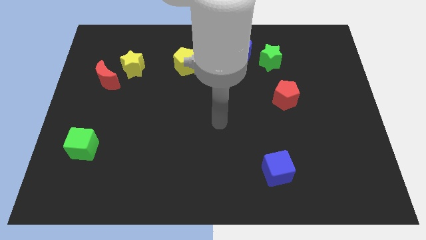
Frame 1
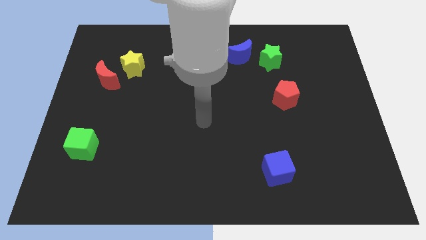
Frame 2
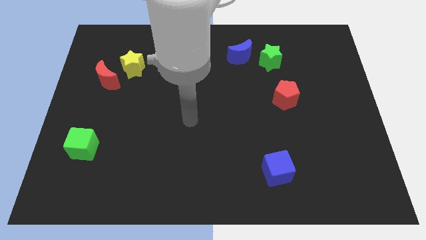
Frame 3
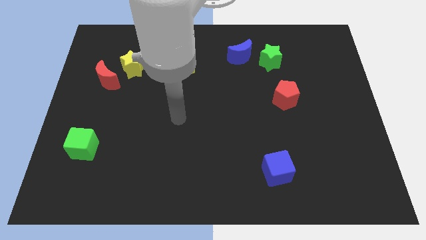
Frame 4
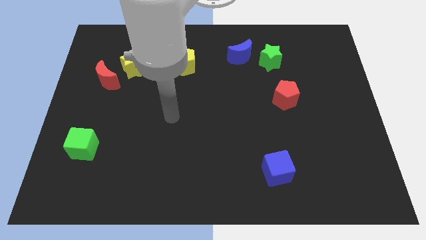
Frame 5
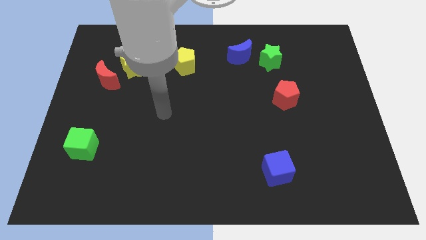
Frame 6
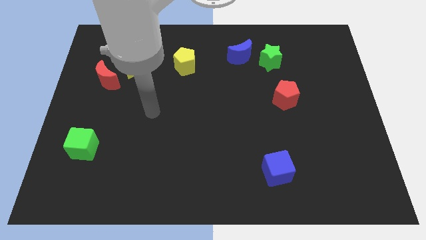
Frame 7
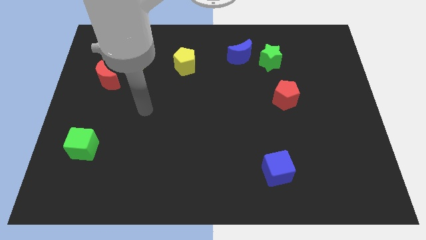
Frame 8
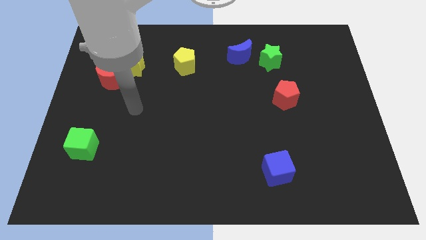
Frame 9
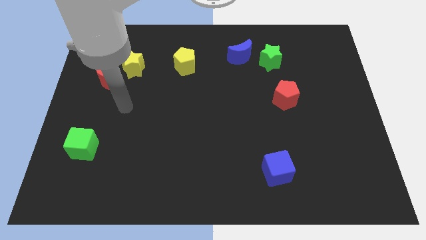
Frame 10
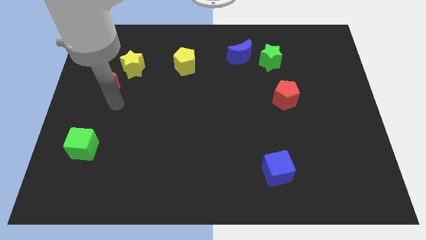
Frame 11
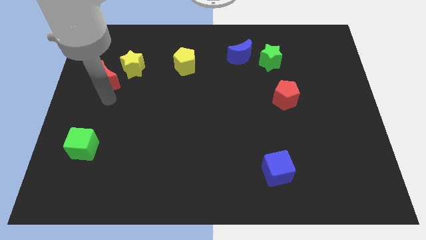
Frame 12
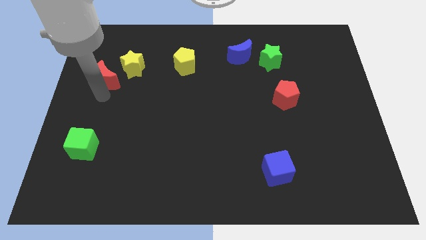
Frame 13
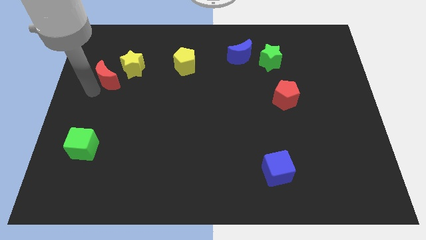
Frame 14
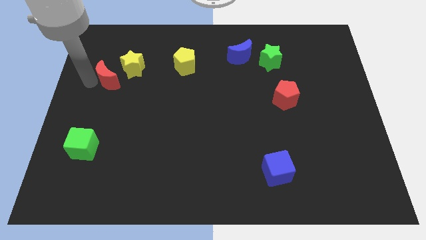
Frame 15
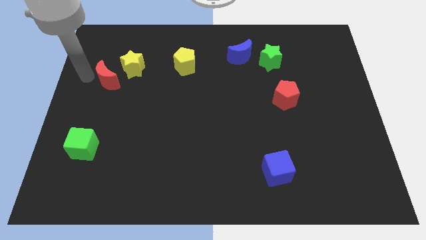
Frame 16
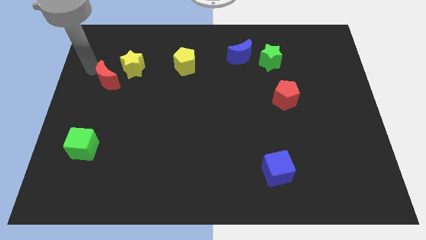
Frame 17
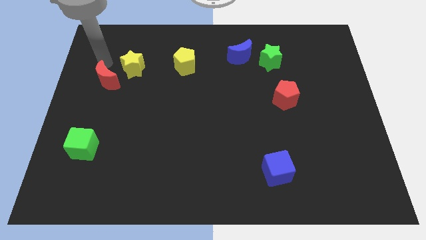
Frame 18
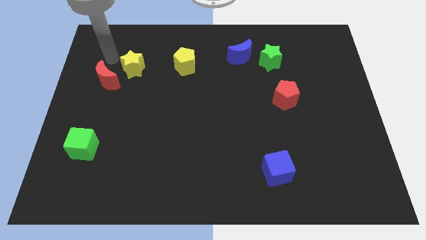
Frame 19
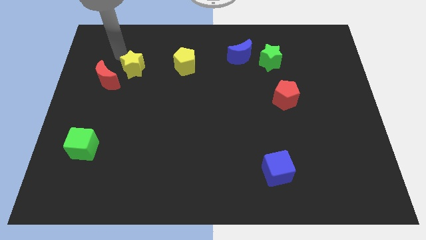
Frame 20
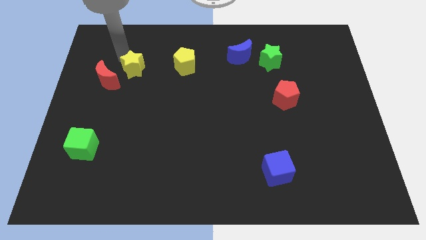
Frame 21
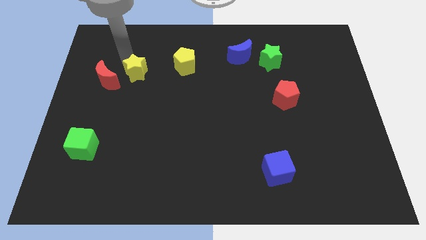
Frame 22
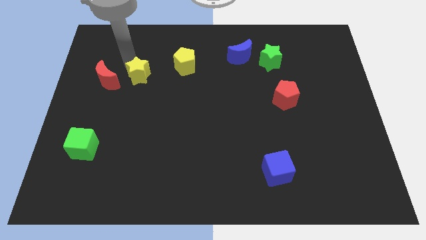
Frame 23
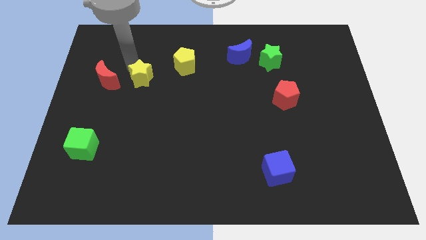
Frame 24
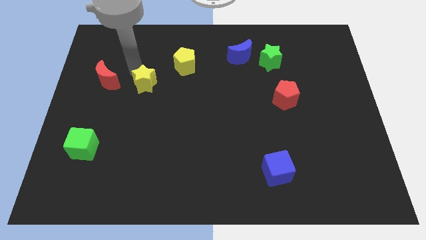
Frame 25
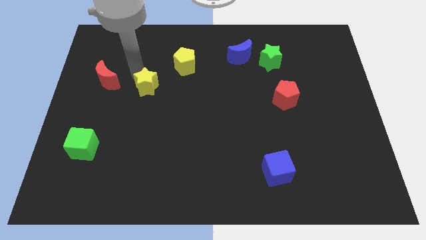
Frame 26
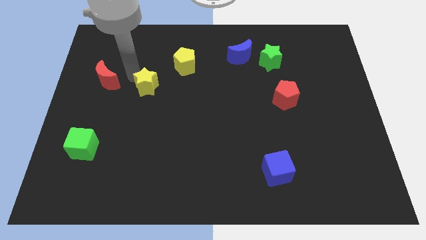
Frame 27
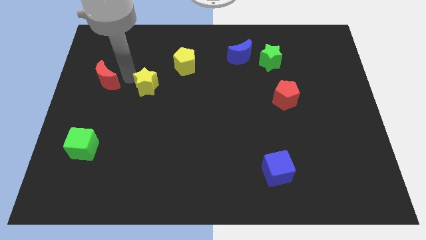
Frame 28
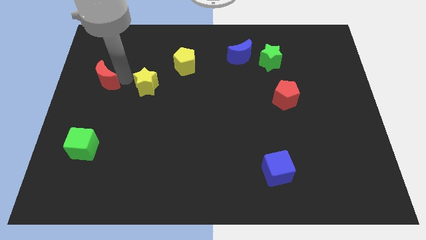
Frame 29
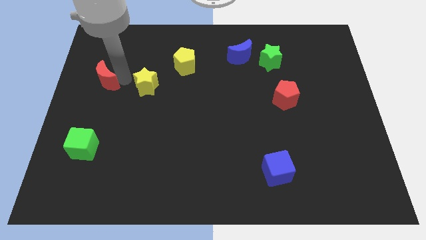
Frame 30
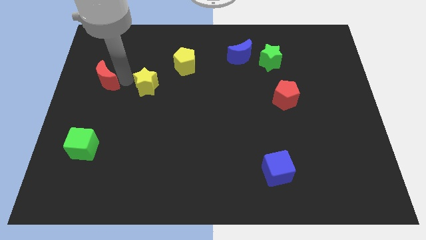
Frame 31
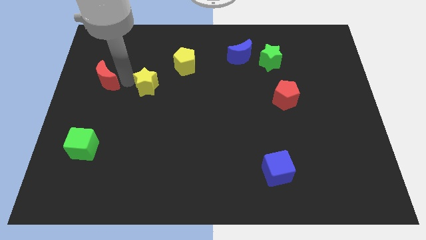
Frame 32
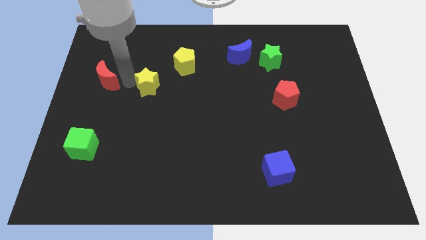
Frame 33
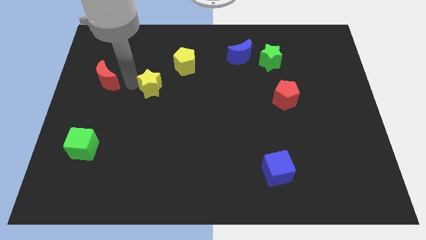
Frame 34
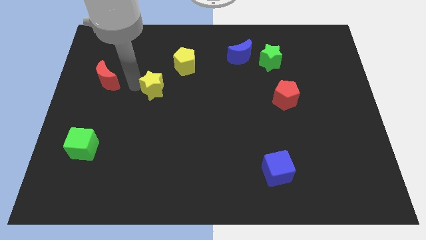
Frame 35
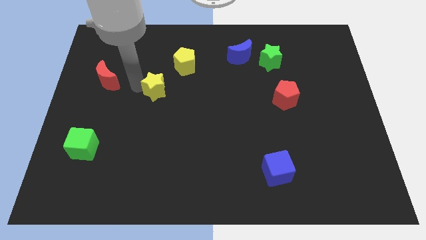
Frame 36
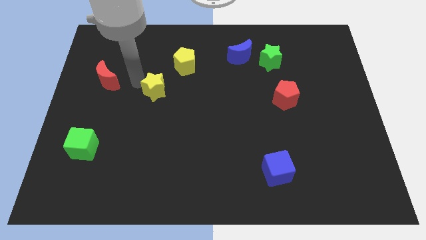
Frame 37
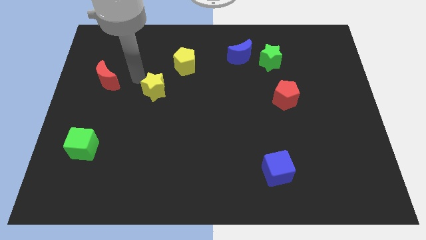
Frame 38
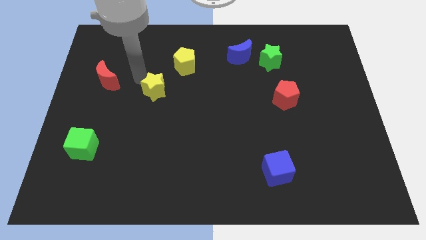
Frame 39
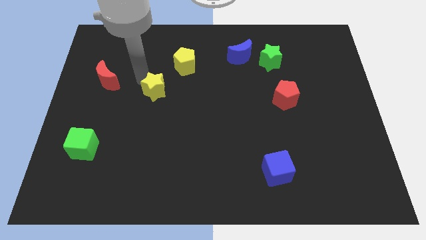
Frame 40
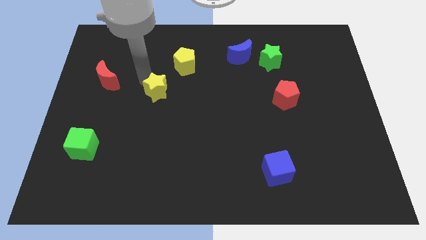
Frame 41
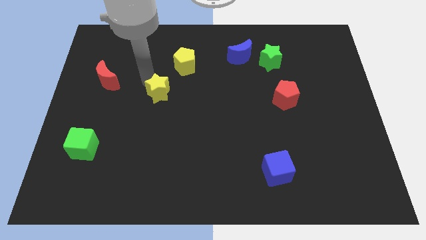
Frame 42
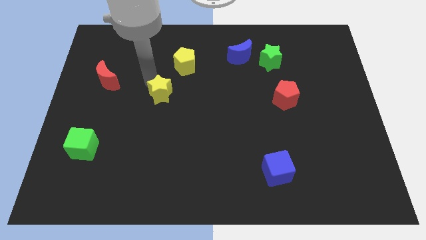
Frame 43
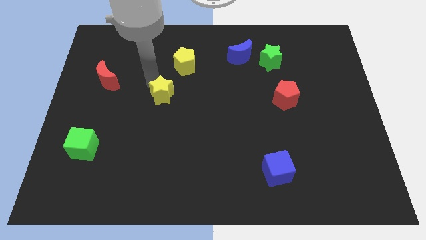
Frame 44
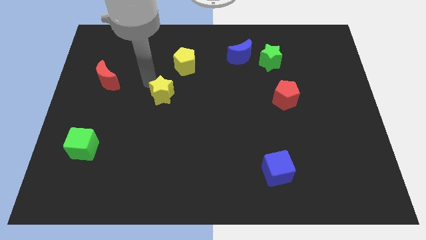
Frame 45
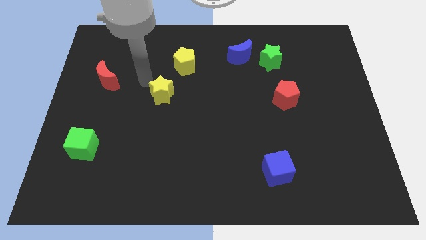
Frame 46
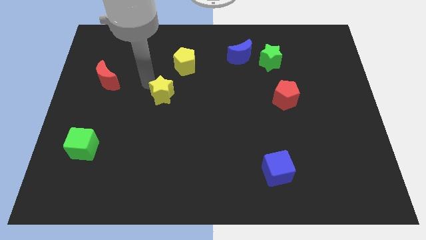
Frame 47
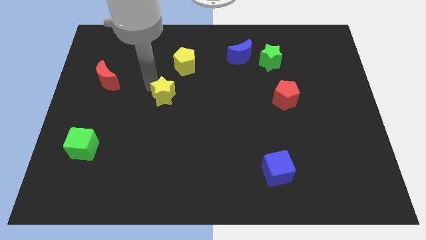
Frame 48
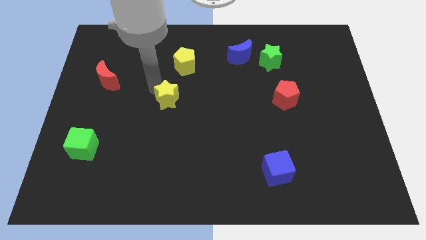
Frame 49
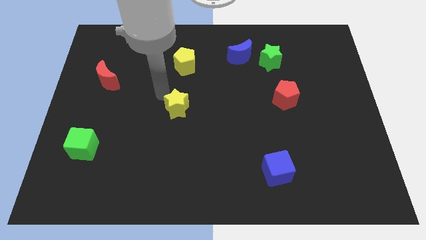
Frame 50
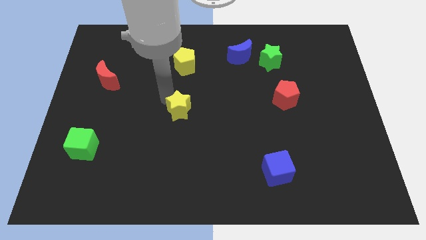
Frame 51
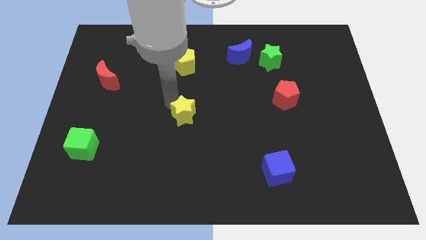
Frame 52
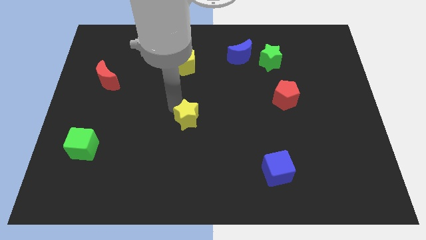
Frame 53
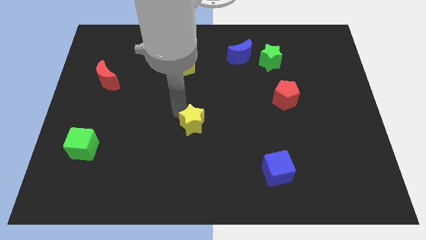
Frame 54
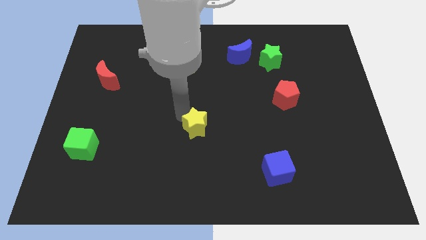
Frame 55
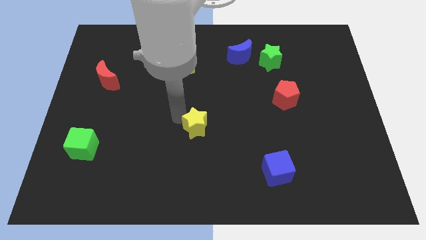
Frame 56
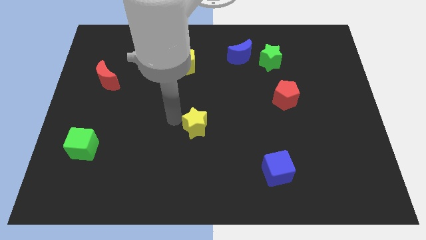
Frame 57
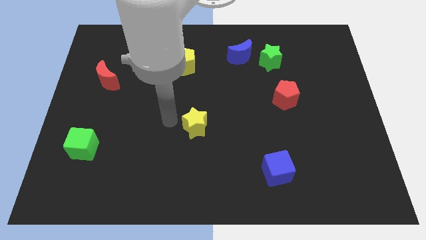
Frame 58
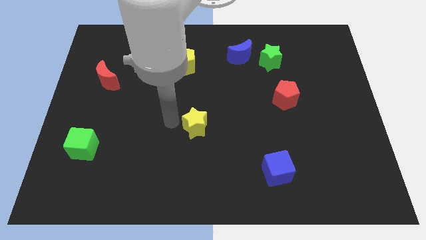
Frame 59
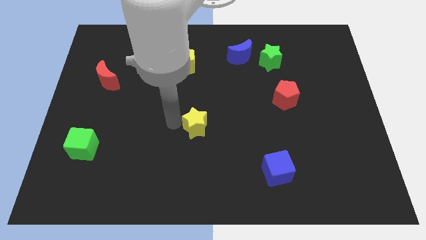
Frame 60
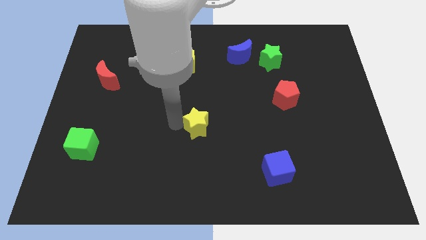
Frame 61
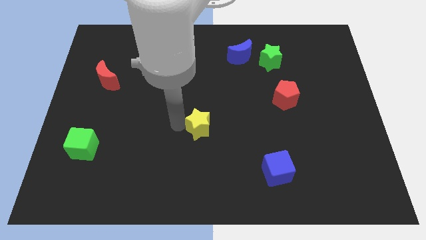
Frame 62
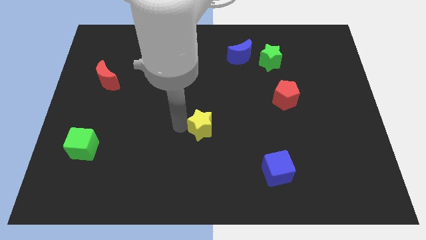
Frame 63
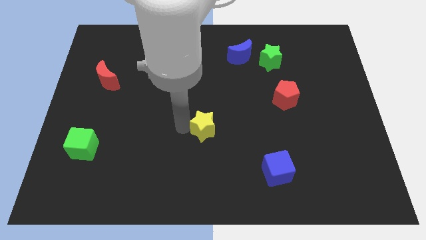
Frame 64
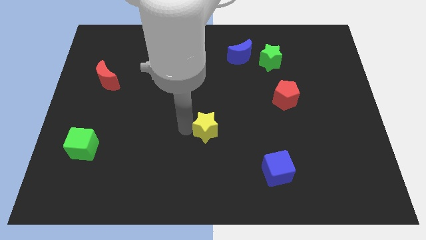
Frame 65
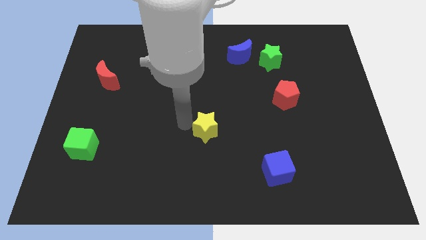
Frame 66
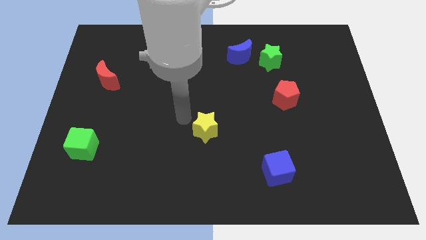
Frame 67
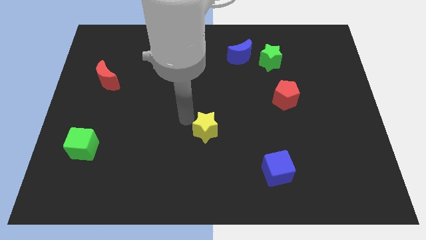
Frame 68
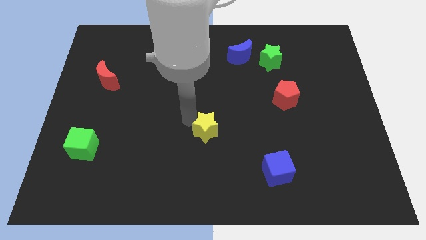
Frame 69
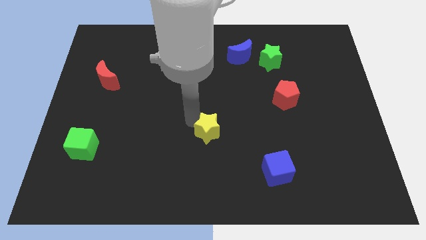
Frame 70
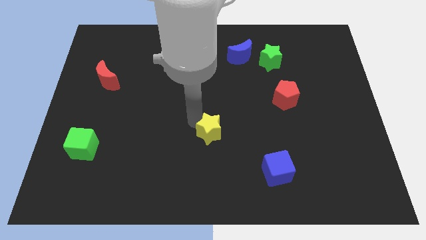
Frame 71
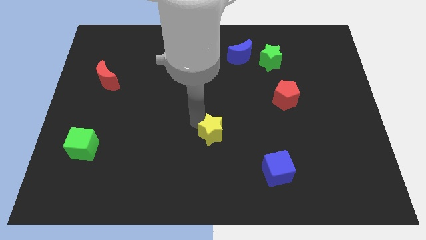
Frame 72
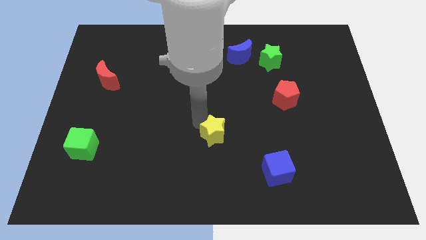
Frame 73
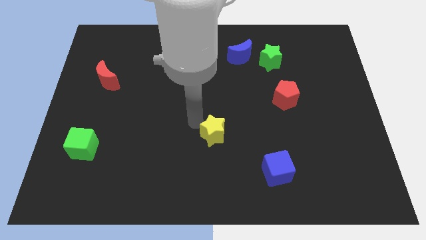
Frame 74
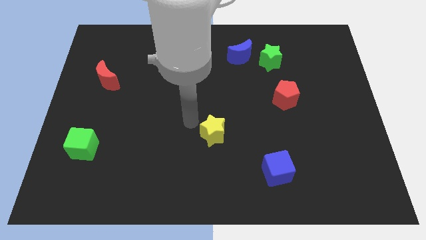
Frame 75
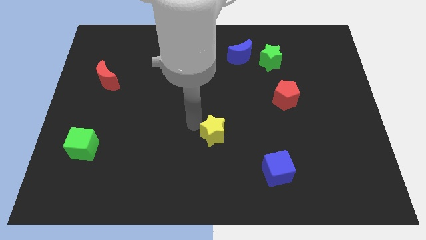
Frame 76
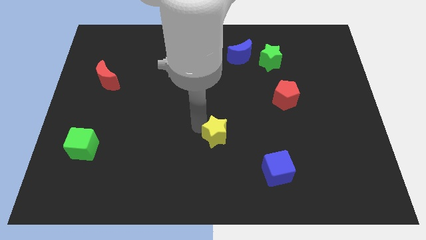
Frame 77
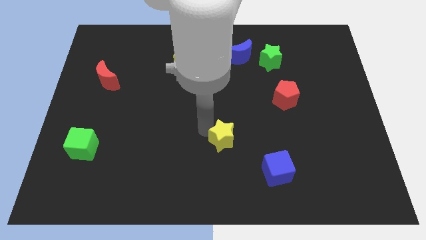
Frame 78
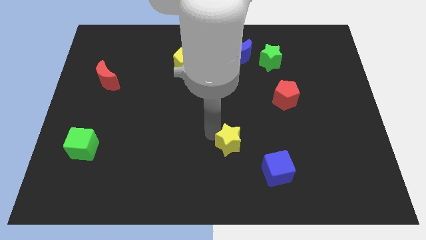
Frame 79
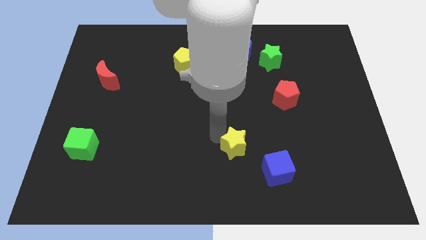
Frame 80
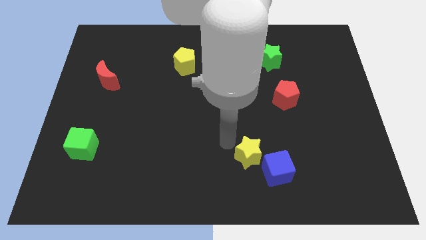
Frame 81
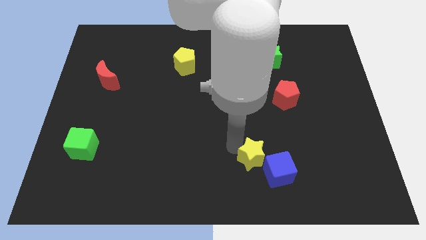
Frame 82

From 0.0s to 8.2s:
put the yellow star next to the blue cube
